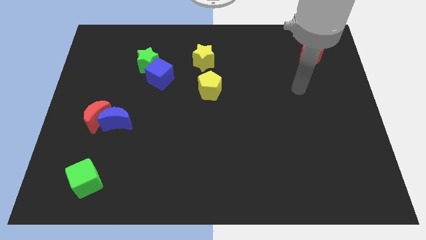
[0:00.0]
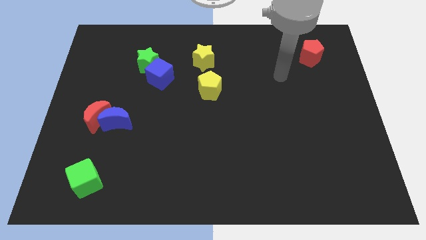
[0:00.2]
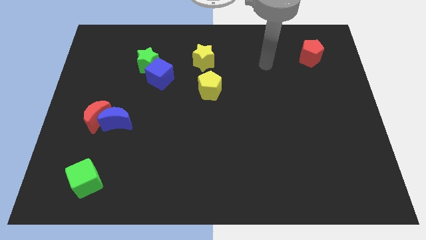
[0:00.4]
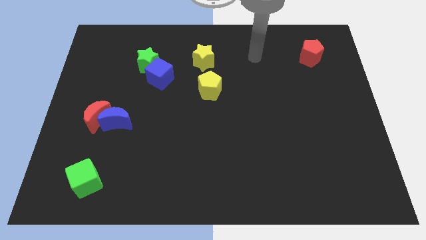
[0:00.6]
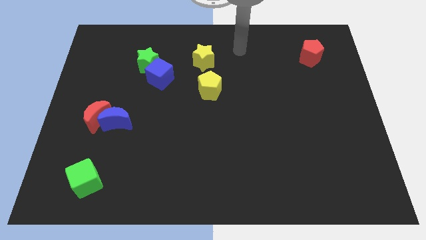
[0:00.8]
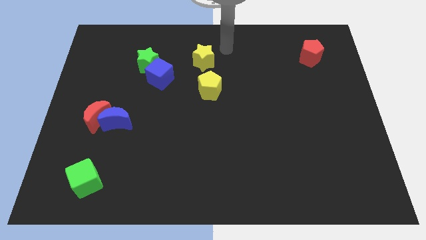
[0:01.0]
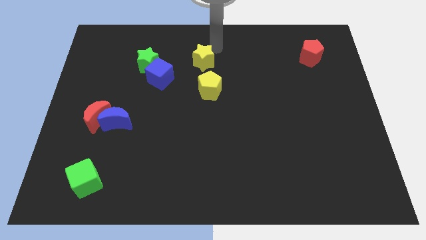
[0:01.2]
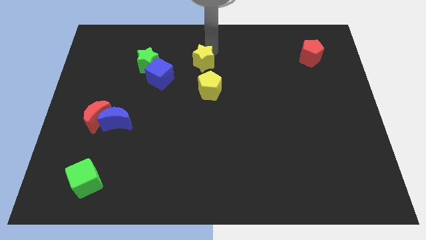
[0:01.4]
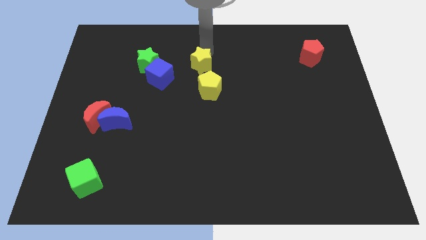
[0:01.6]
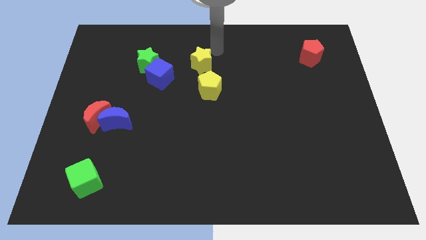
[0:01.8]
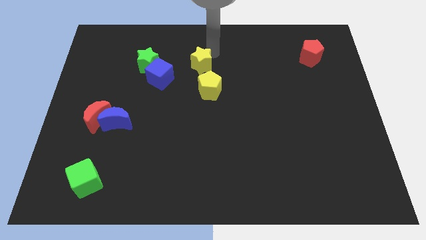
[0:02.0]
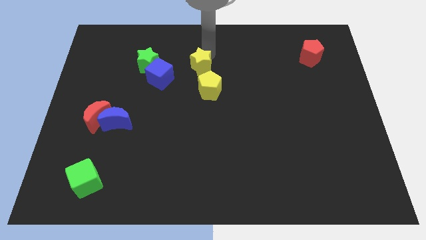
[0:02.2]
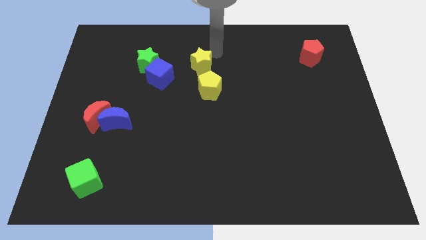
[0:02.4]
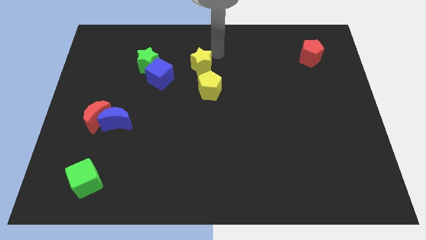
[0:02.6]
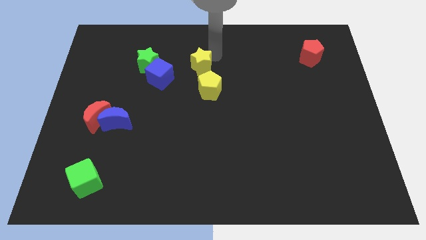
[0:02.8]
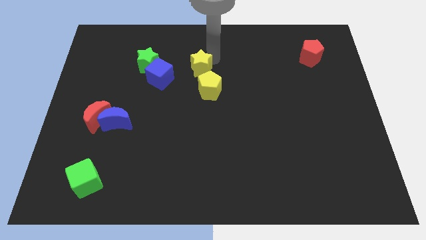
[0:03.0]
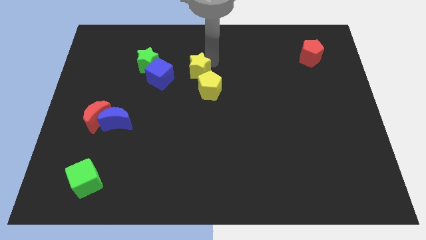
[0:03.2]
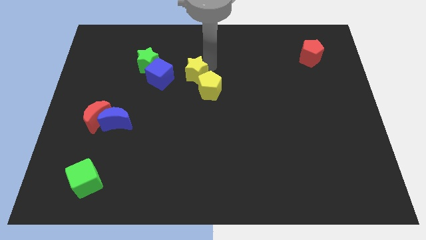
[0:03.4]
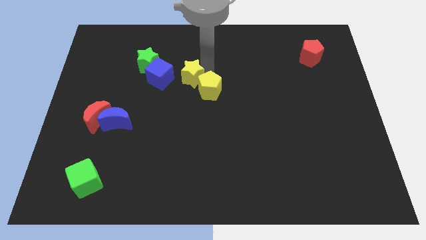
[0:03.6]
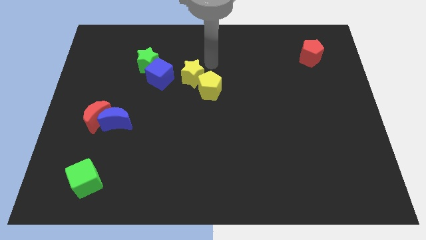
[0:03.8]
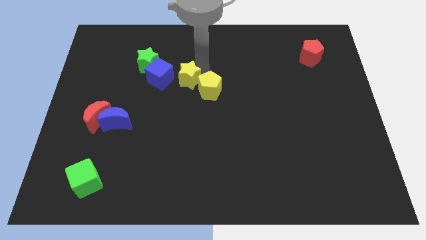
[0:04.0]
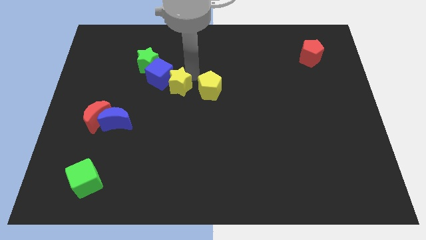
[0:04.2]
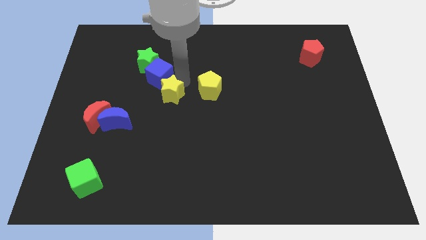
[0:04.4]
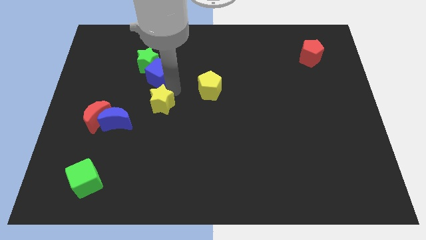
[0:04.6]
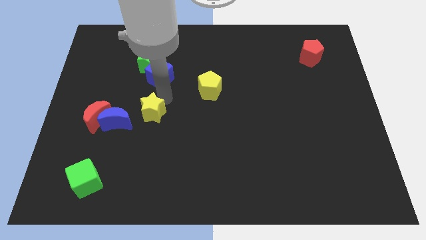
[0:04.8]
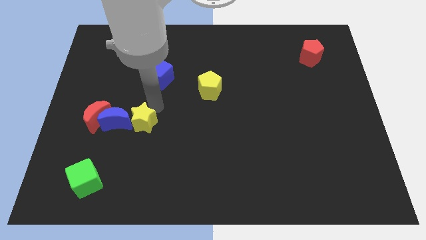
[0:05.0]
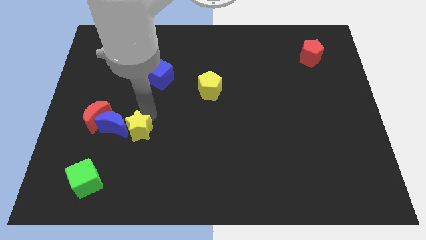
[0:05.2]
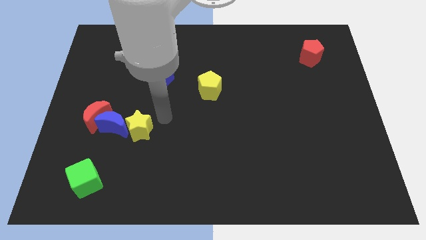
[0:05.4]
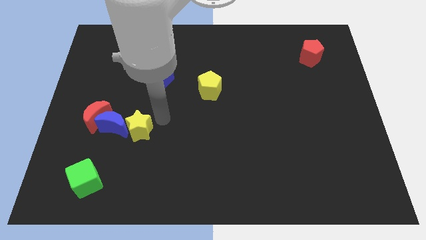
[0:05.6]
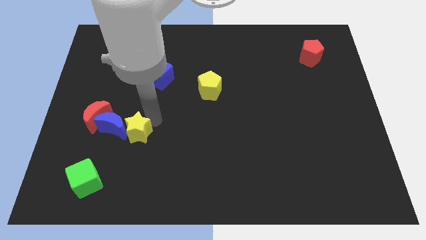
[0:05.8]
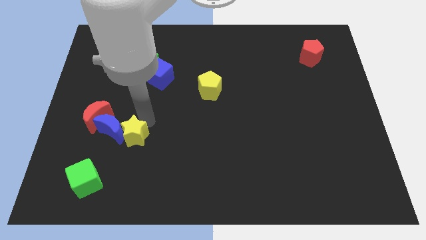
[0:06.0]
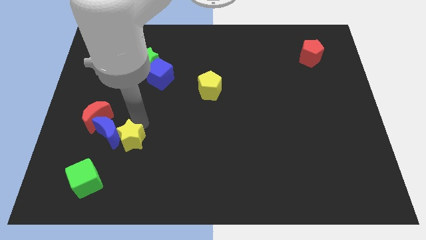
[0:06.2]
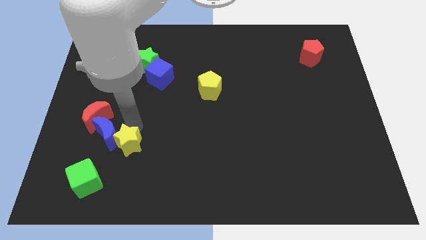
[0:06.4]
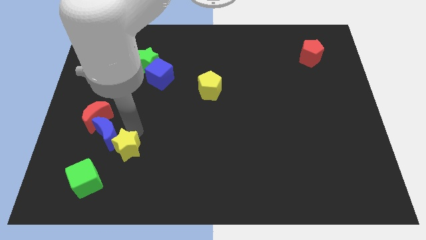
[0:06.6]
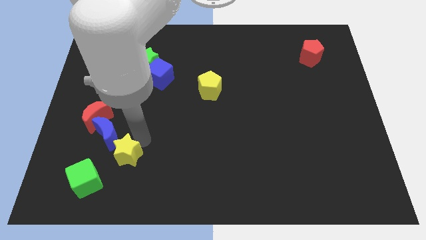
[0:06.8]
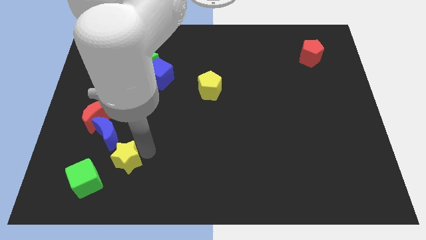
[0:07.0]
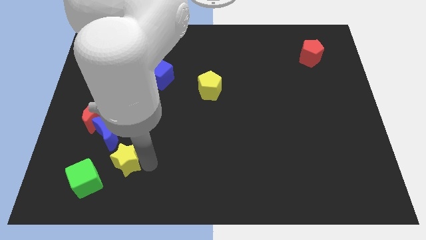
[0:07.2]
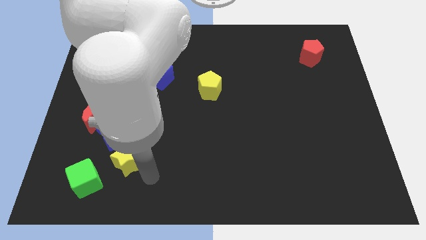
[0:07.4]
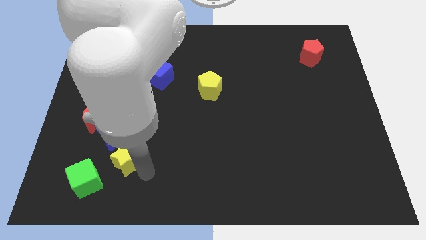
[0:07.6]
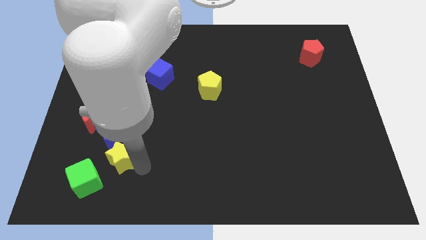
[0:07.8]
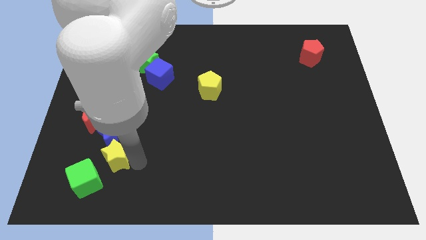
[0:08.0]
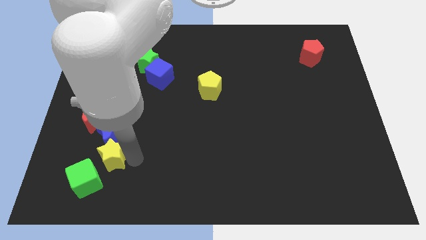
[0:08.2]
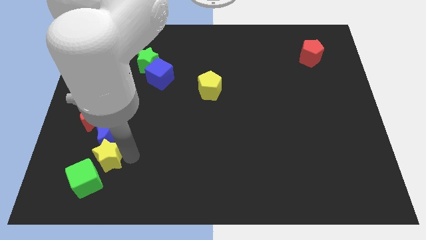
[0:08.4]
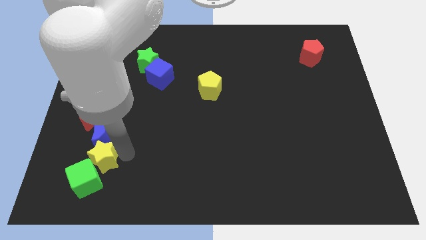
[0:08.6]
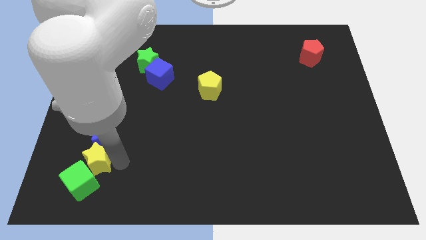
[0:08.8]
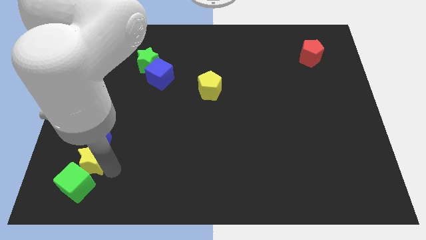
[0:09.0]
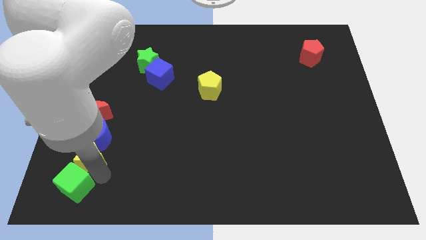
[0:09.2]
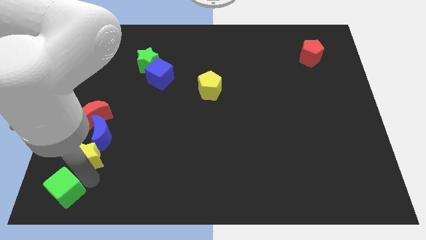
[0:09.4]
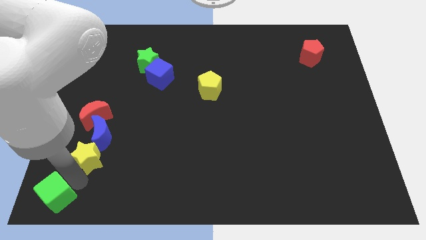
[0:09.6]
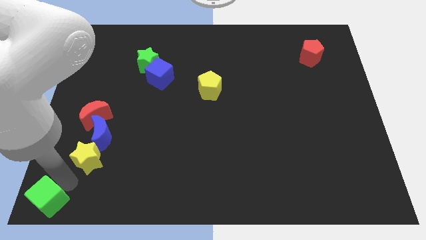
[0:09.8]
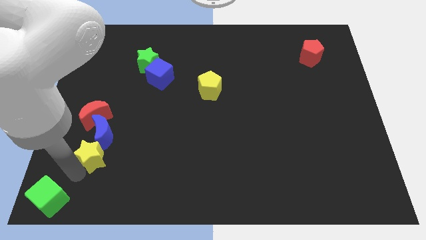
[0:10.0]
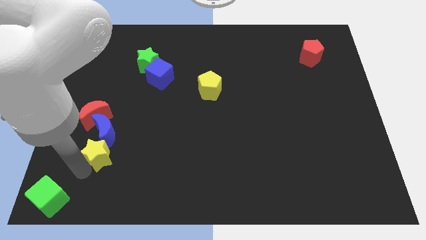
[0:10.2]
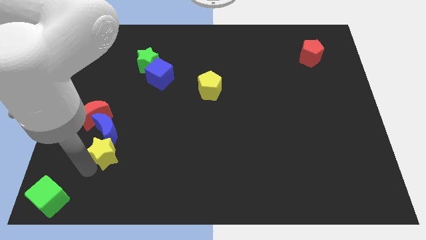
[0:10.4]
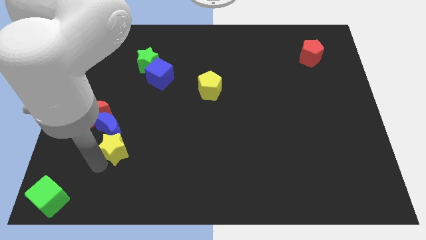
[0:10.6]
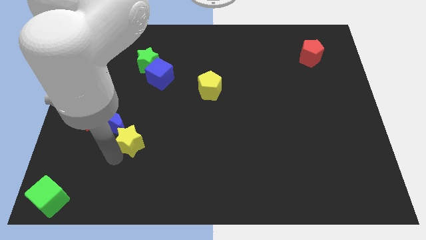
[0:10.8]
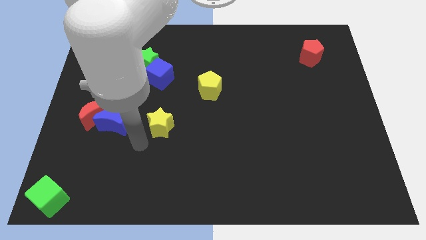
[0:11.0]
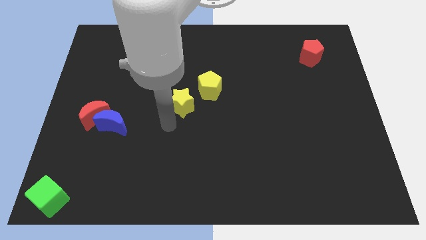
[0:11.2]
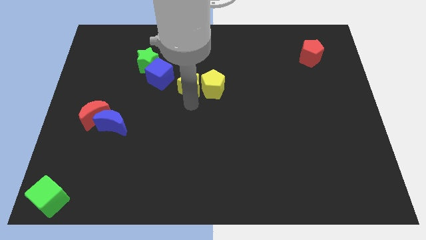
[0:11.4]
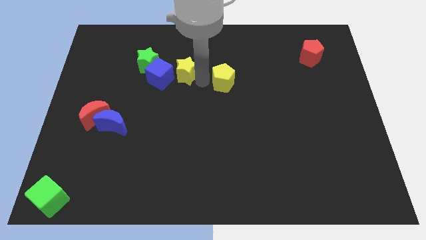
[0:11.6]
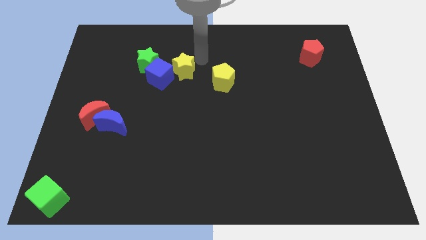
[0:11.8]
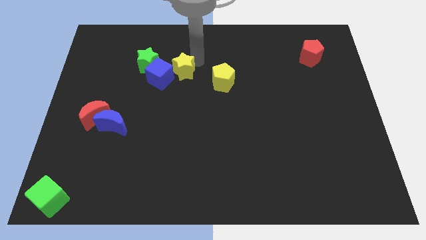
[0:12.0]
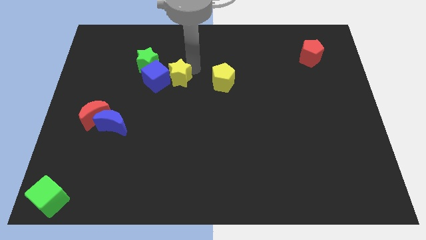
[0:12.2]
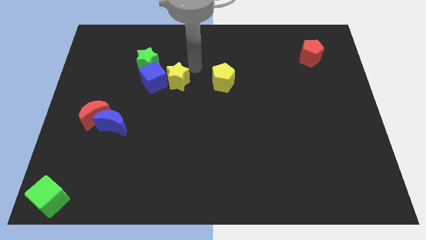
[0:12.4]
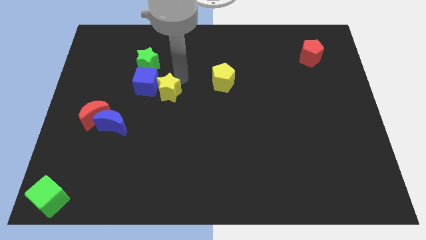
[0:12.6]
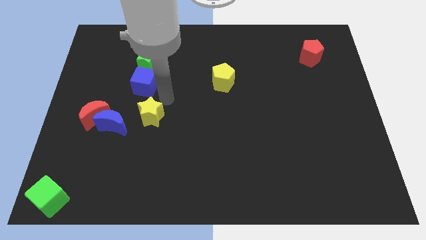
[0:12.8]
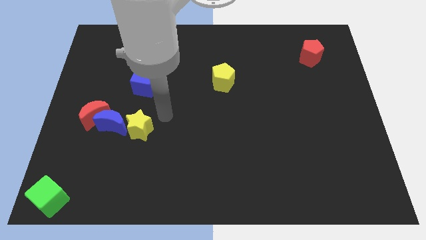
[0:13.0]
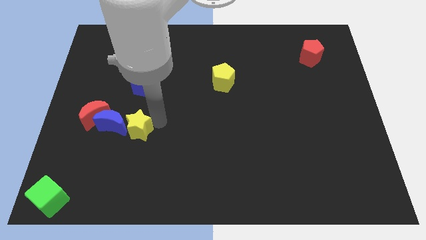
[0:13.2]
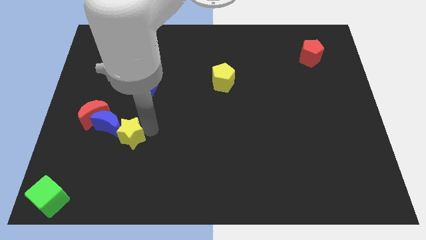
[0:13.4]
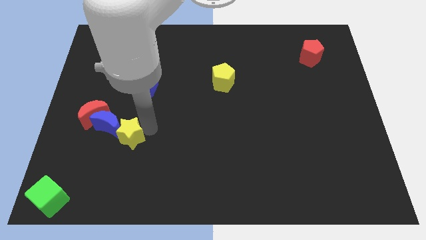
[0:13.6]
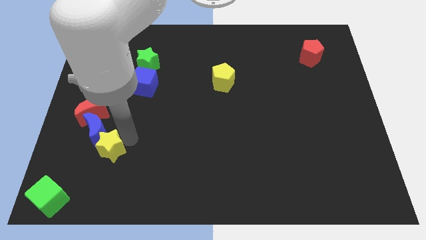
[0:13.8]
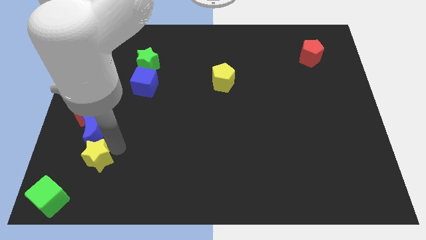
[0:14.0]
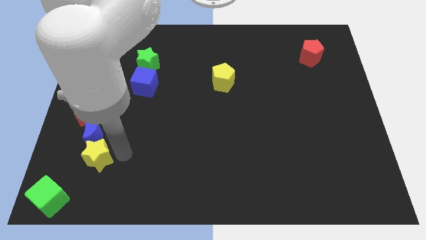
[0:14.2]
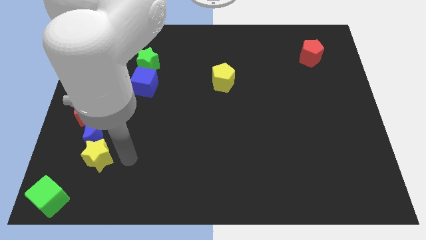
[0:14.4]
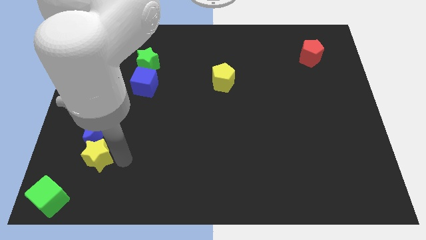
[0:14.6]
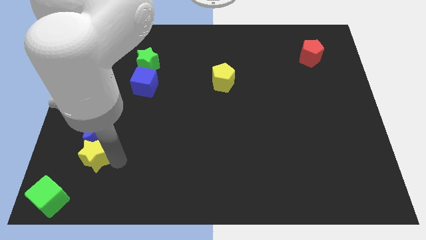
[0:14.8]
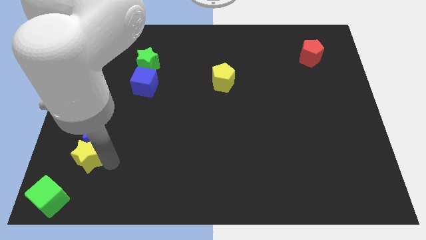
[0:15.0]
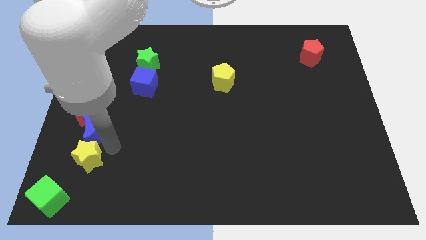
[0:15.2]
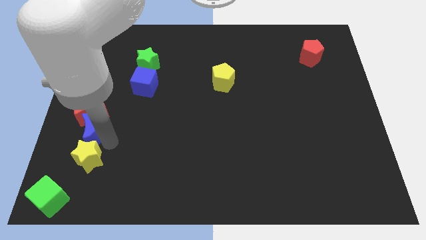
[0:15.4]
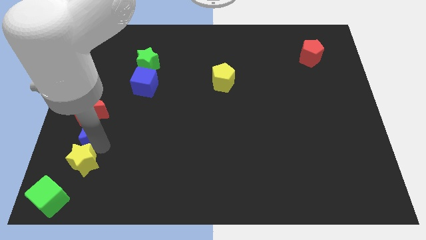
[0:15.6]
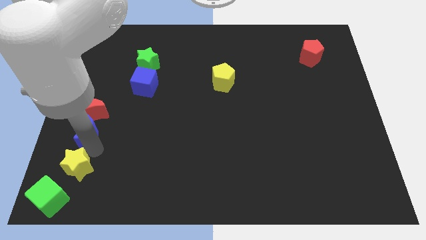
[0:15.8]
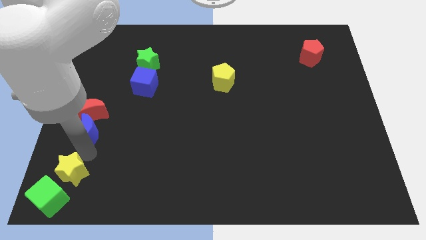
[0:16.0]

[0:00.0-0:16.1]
put the yellow star to the bottom left
